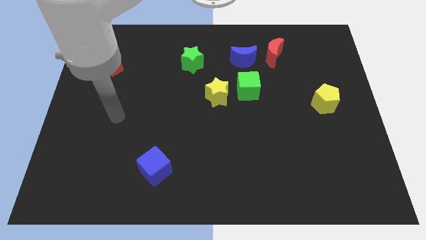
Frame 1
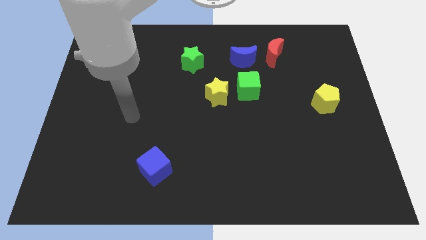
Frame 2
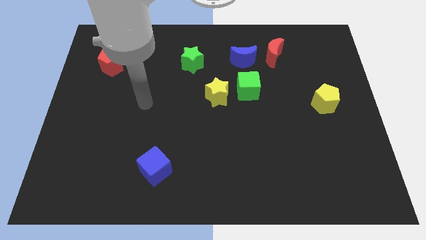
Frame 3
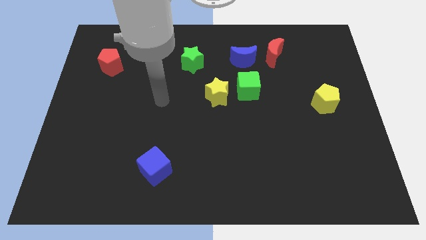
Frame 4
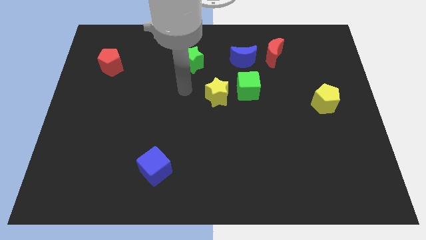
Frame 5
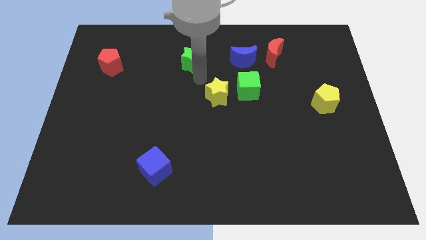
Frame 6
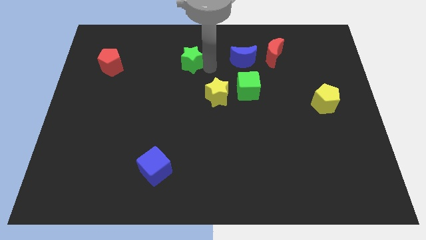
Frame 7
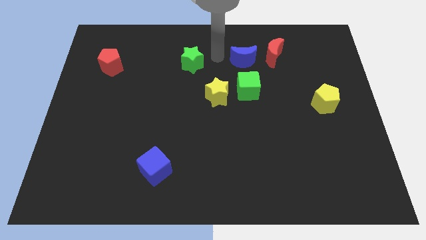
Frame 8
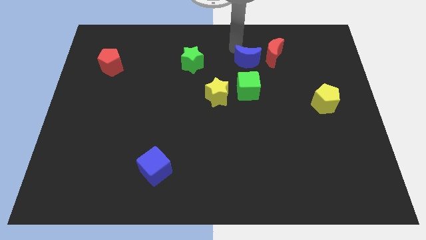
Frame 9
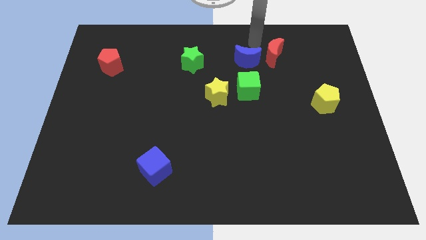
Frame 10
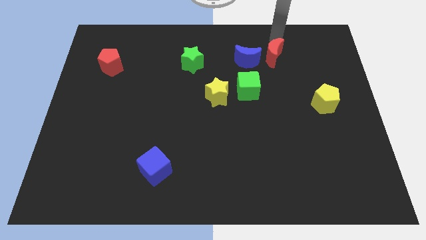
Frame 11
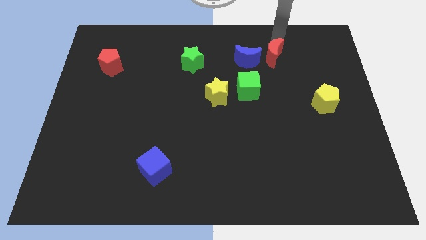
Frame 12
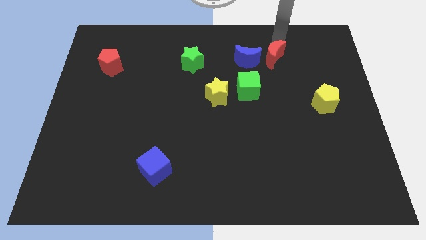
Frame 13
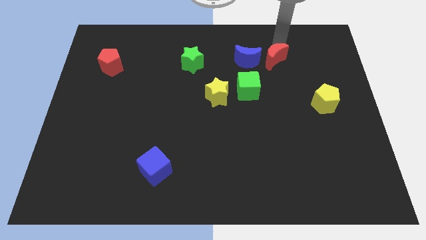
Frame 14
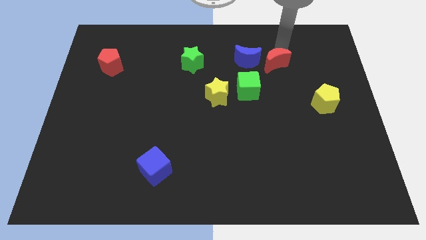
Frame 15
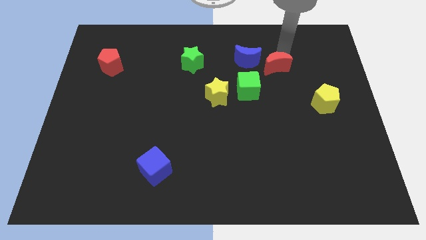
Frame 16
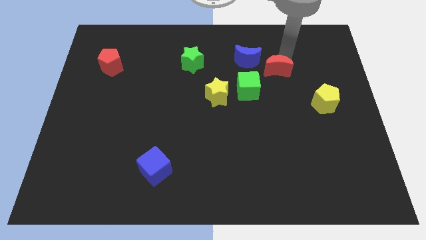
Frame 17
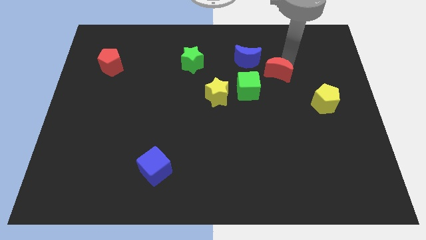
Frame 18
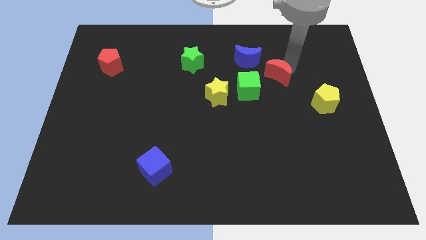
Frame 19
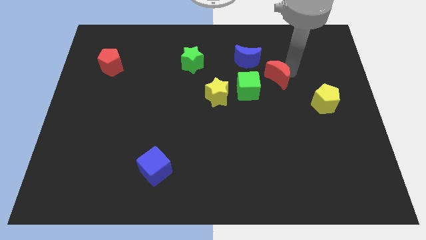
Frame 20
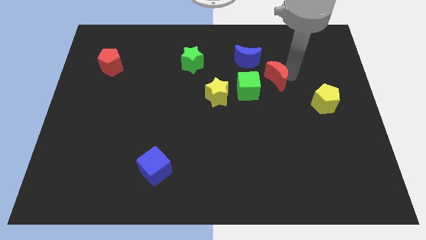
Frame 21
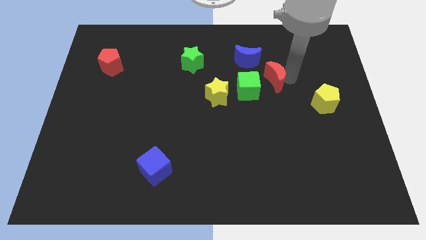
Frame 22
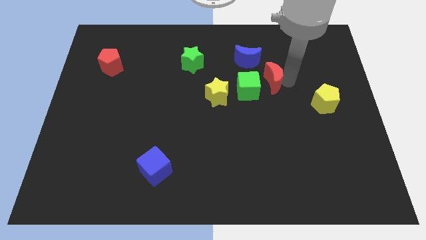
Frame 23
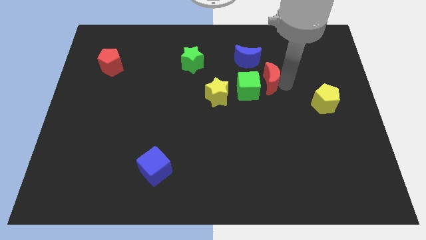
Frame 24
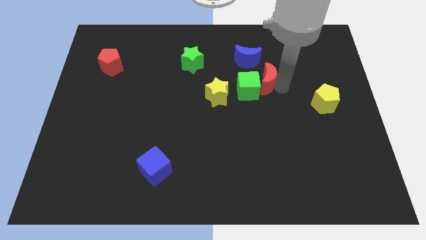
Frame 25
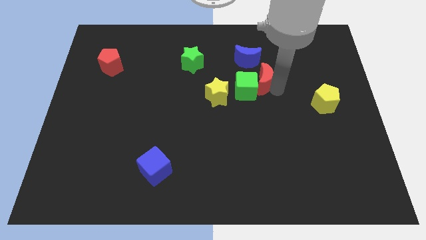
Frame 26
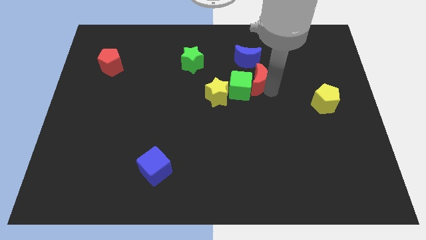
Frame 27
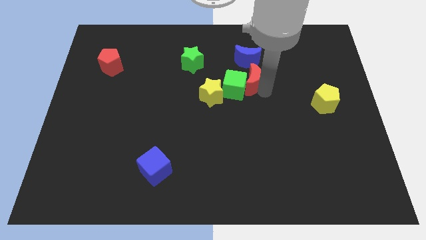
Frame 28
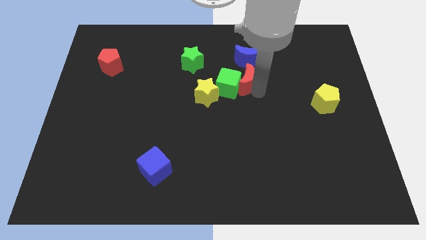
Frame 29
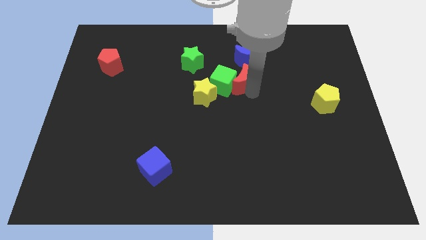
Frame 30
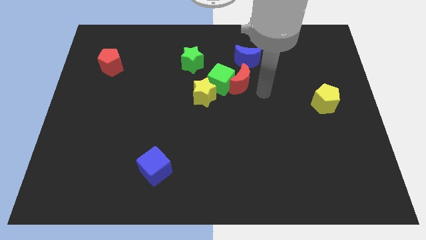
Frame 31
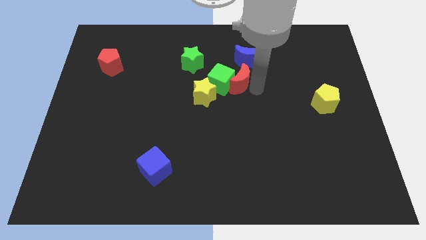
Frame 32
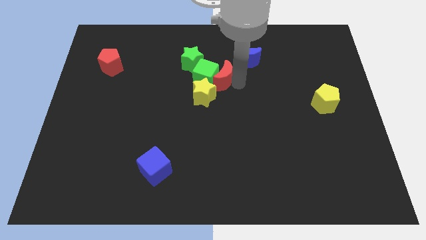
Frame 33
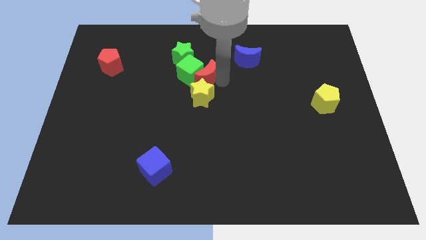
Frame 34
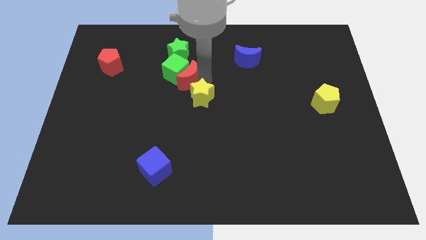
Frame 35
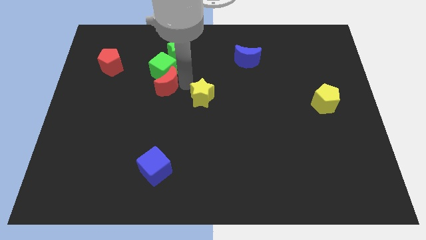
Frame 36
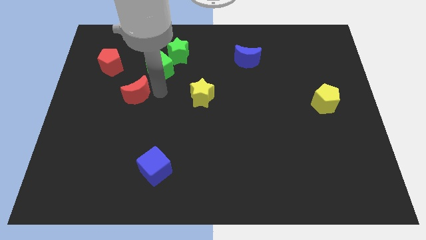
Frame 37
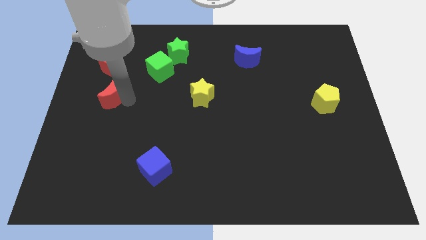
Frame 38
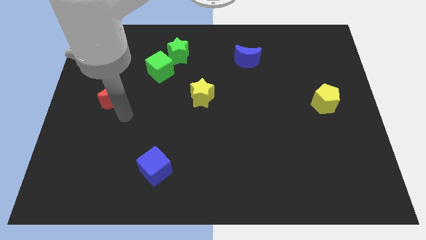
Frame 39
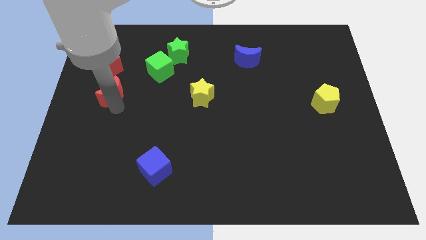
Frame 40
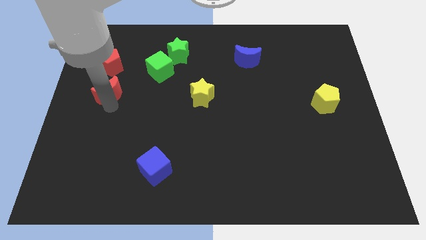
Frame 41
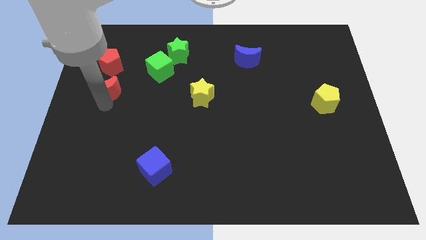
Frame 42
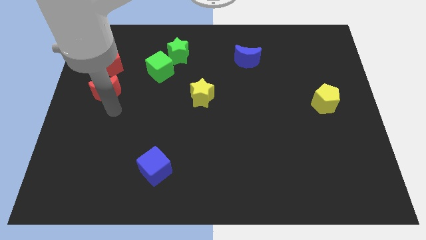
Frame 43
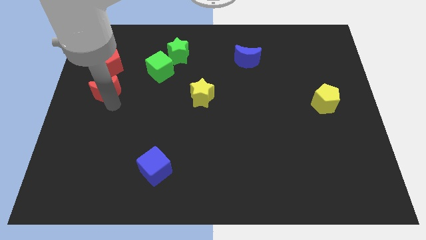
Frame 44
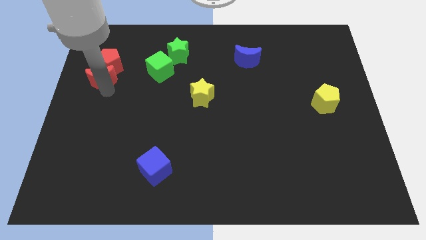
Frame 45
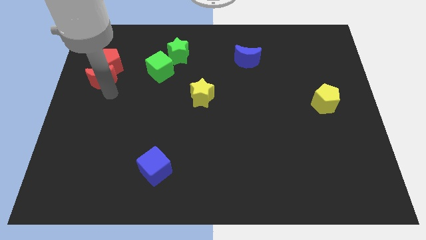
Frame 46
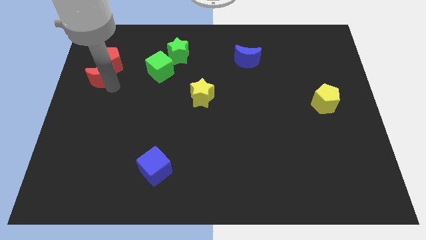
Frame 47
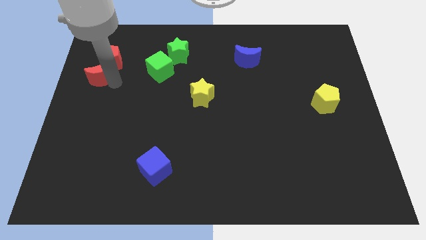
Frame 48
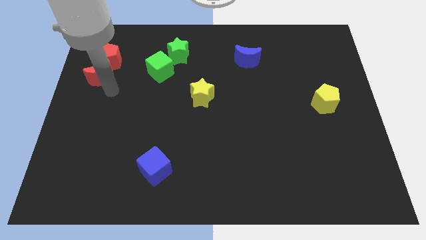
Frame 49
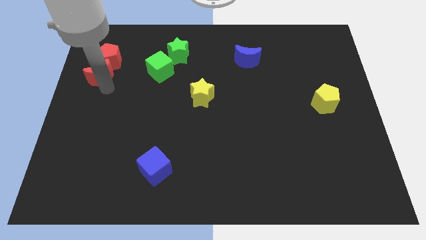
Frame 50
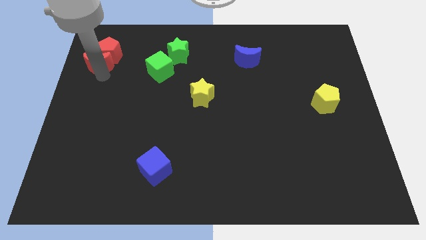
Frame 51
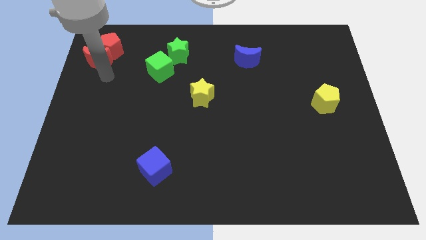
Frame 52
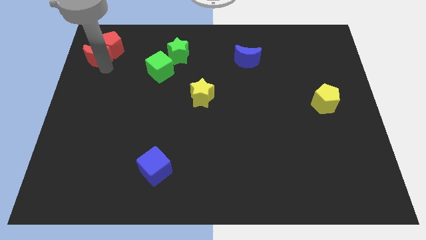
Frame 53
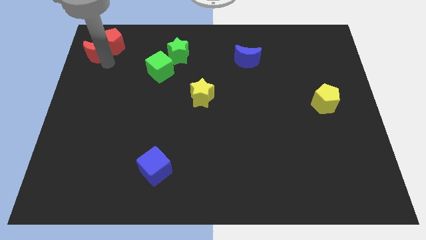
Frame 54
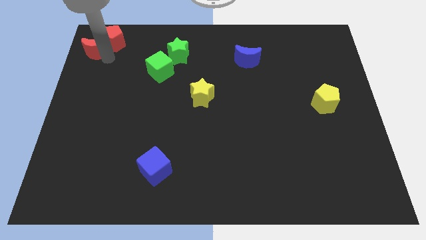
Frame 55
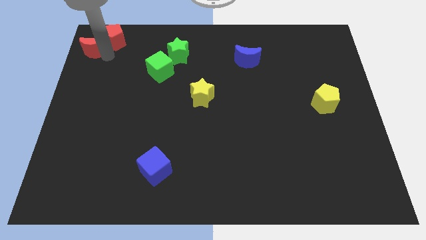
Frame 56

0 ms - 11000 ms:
put the red moon to the top left
